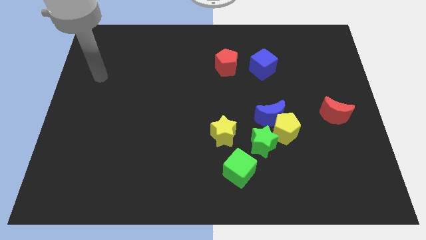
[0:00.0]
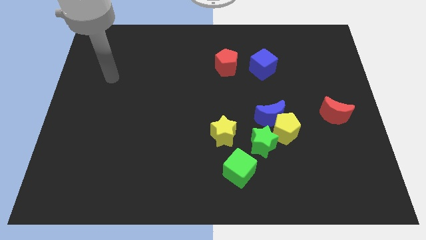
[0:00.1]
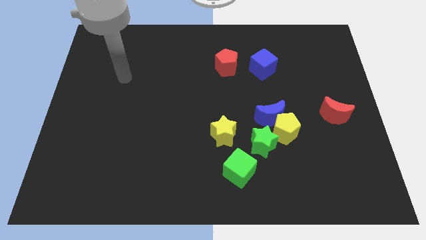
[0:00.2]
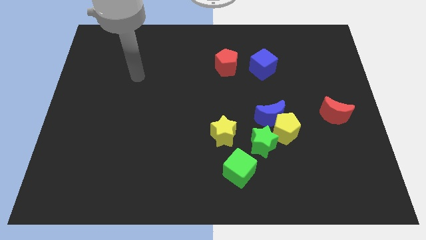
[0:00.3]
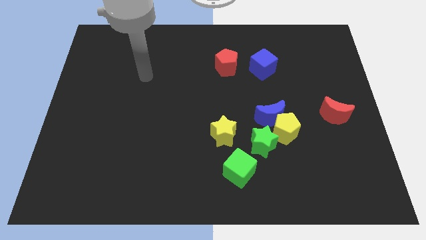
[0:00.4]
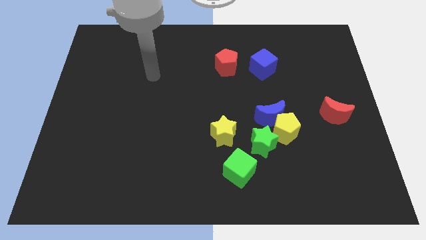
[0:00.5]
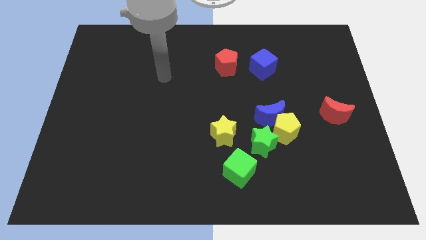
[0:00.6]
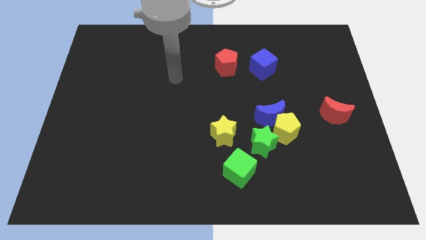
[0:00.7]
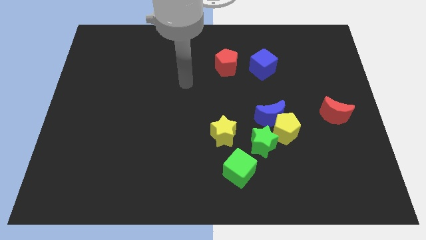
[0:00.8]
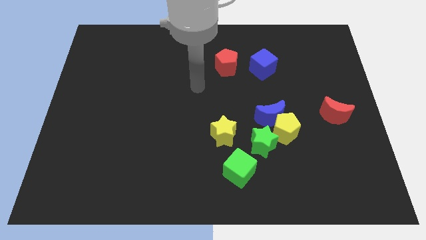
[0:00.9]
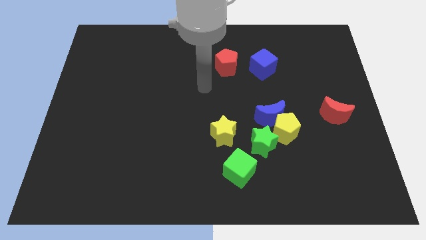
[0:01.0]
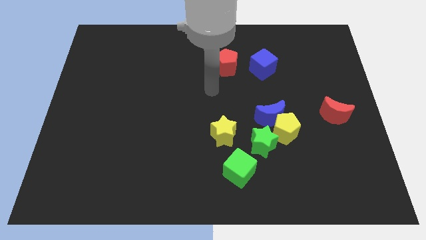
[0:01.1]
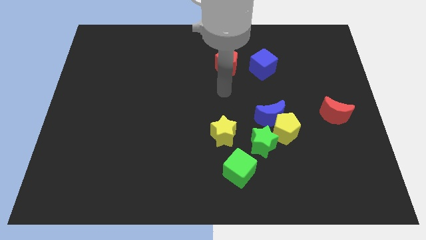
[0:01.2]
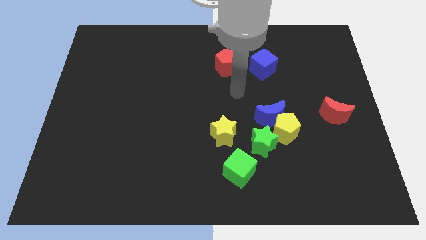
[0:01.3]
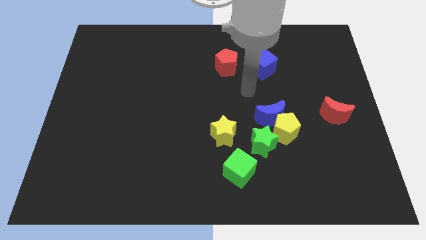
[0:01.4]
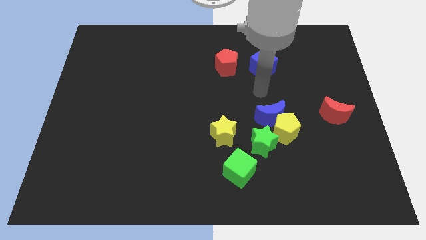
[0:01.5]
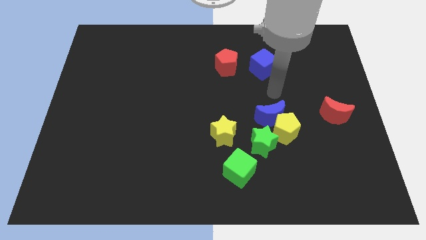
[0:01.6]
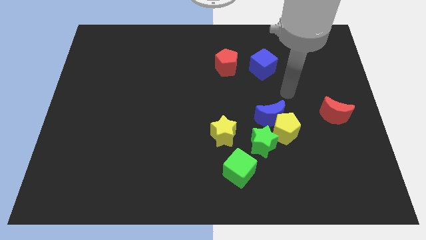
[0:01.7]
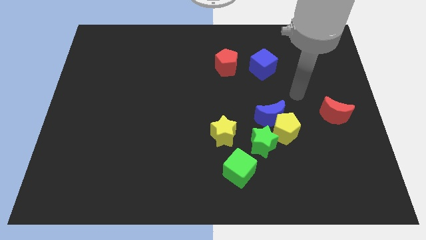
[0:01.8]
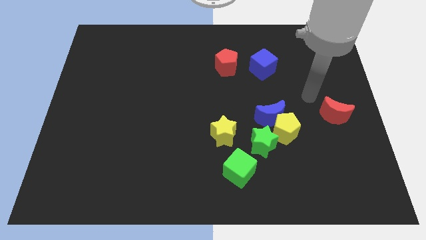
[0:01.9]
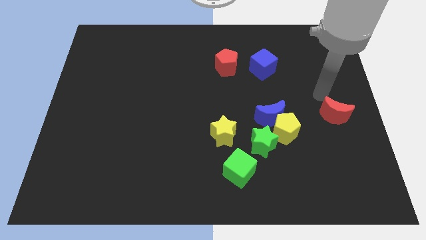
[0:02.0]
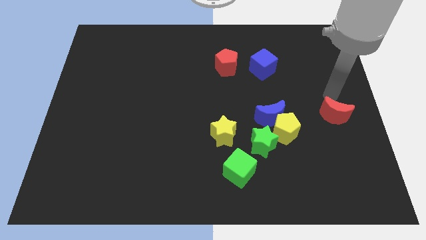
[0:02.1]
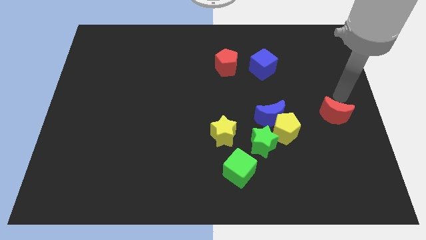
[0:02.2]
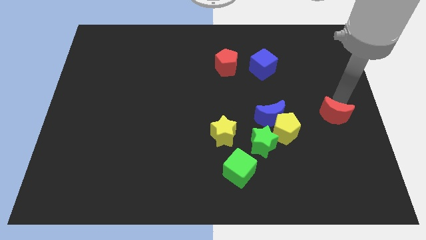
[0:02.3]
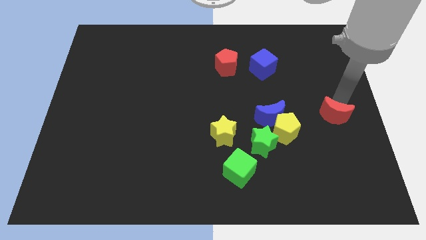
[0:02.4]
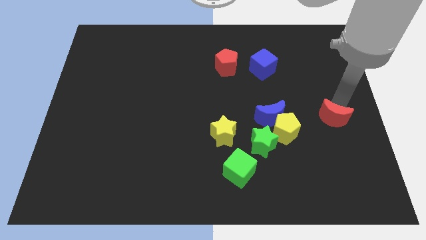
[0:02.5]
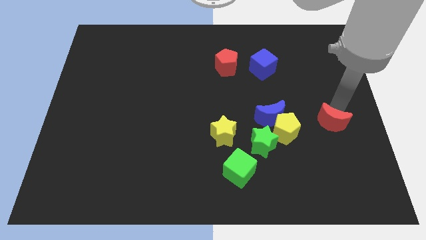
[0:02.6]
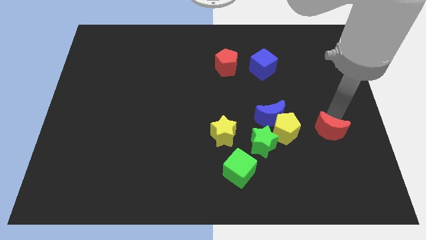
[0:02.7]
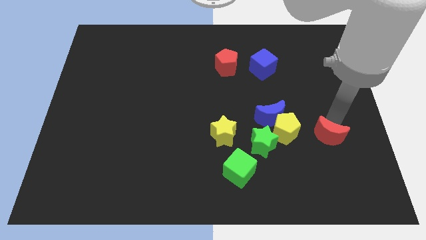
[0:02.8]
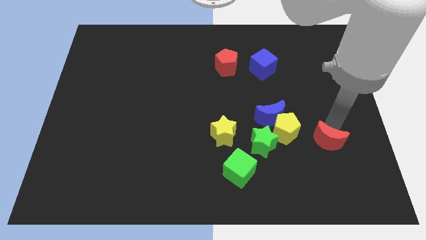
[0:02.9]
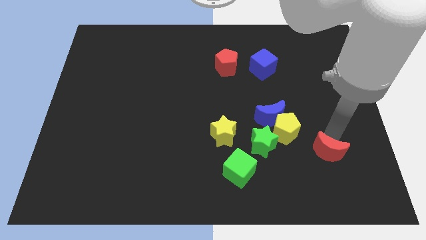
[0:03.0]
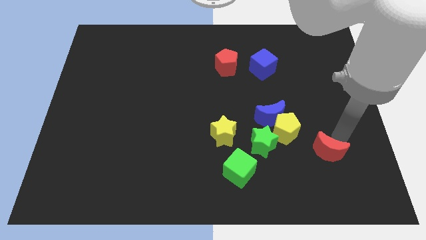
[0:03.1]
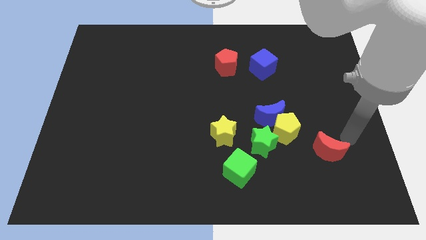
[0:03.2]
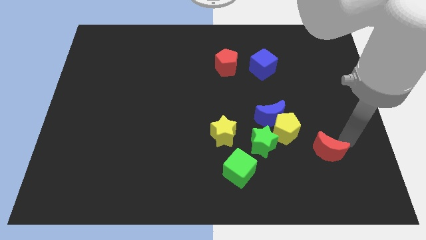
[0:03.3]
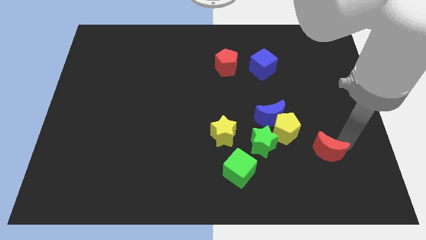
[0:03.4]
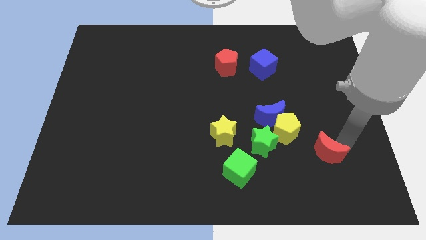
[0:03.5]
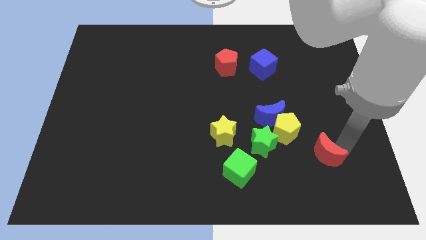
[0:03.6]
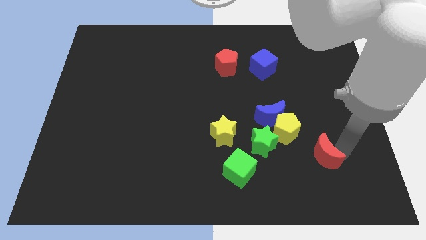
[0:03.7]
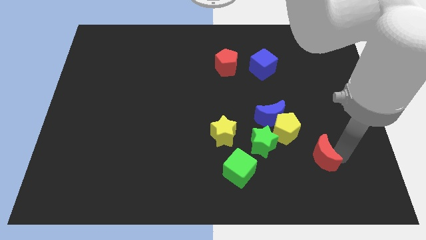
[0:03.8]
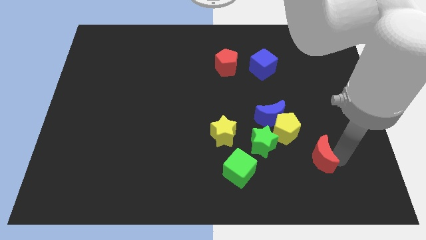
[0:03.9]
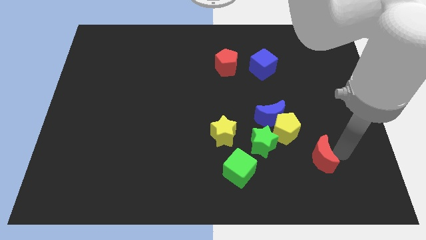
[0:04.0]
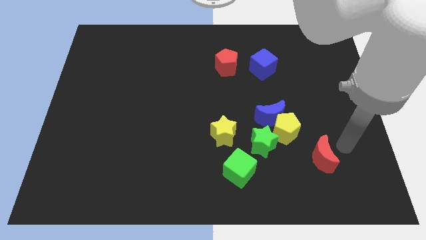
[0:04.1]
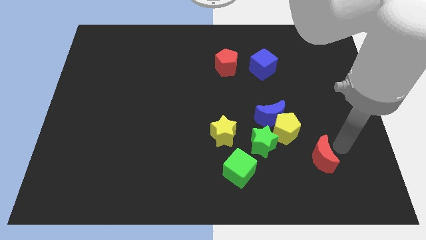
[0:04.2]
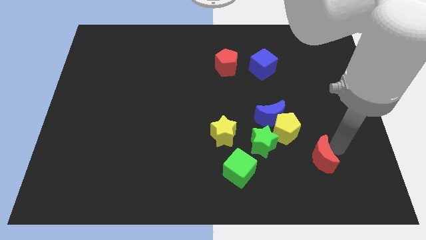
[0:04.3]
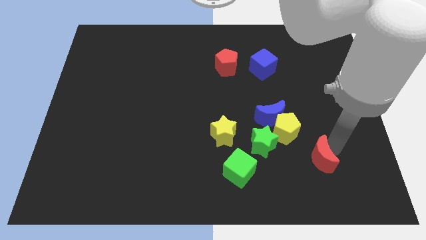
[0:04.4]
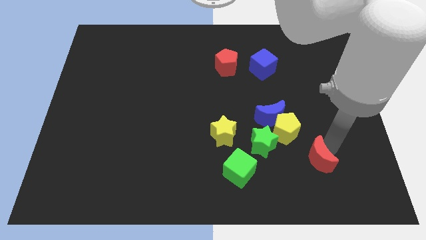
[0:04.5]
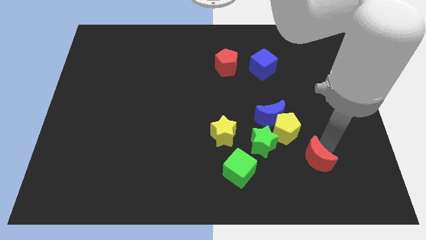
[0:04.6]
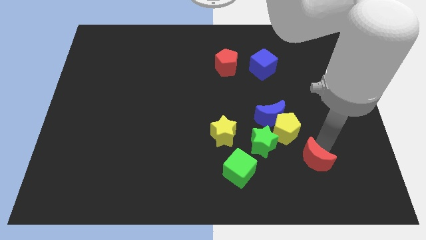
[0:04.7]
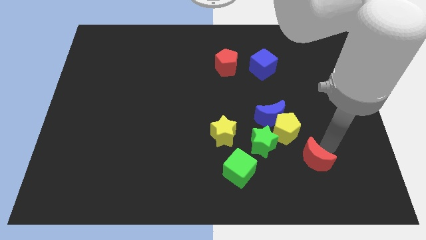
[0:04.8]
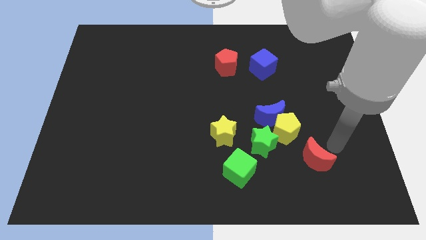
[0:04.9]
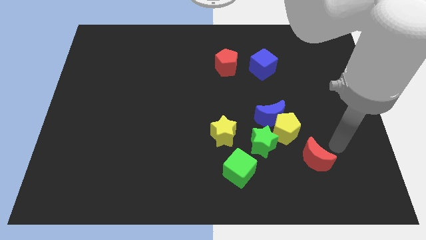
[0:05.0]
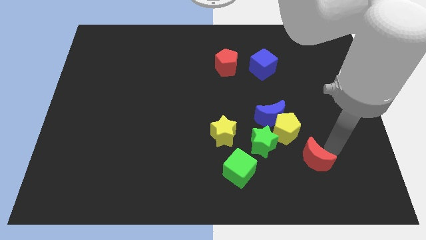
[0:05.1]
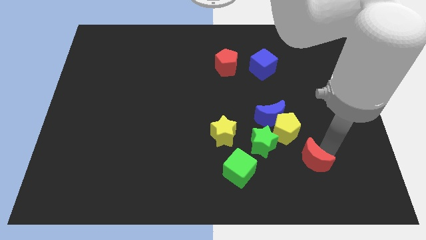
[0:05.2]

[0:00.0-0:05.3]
slide the red moon to the bottom side of the yellow pentagon

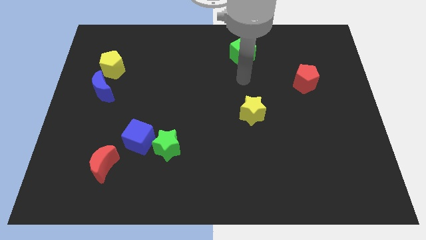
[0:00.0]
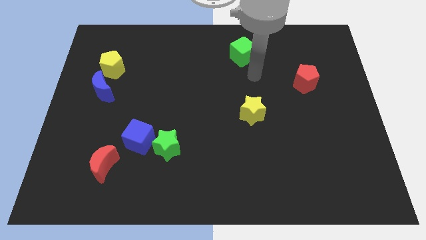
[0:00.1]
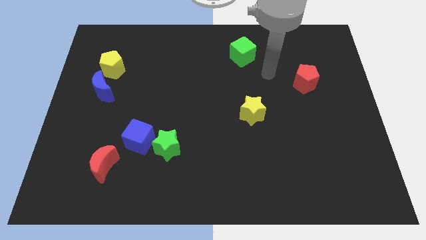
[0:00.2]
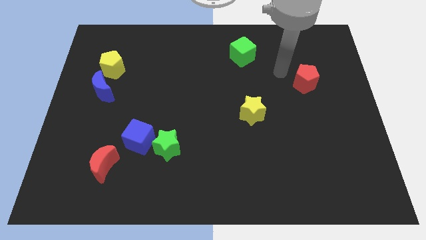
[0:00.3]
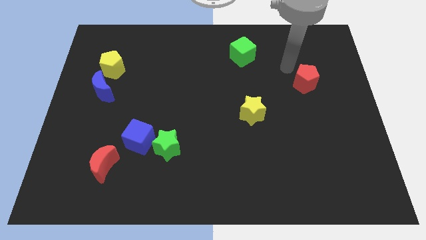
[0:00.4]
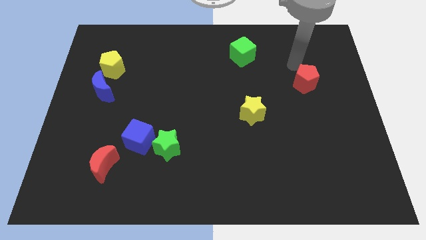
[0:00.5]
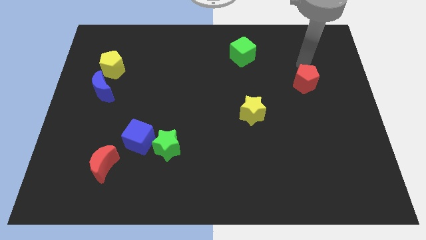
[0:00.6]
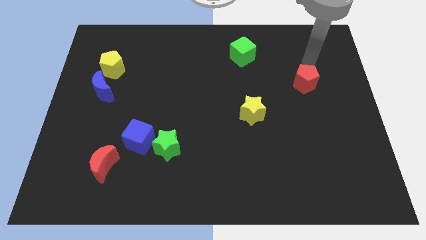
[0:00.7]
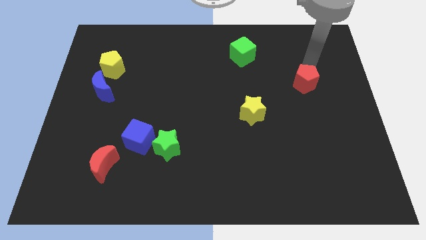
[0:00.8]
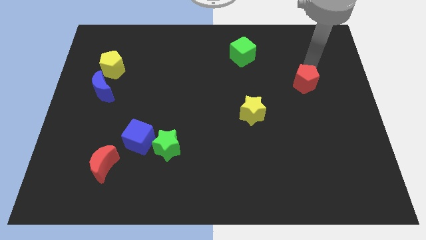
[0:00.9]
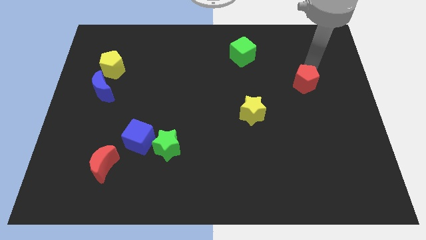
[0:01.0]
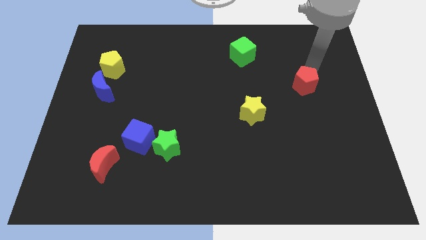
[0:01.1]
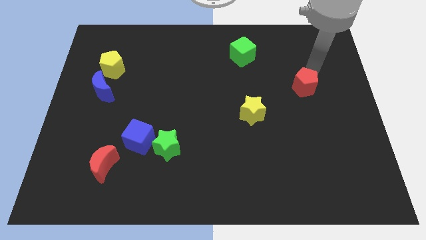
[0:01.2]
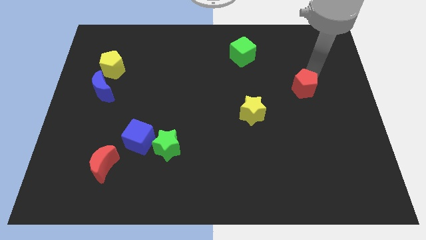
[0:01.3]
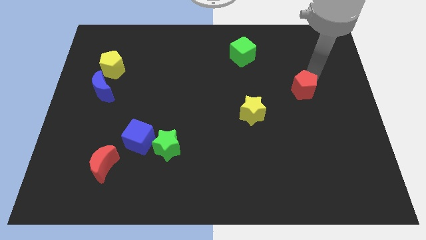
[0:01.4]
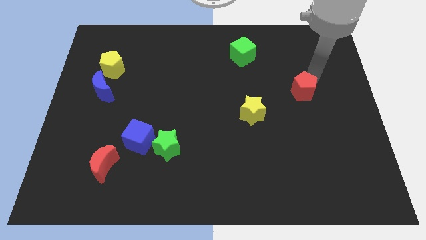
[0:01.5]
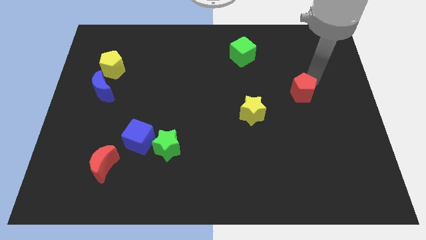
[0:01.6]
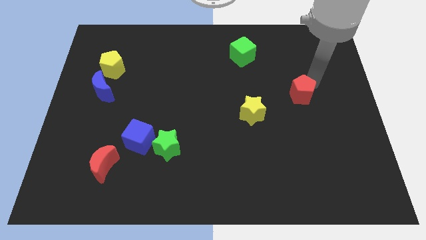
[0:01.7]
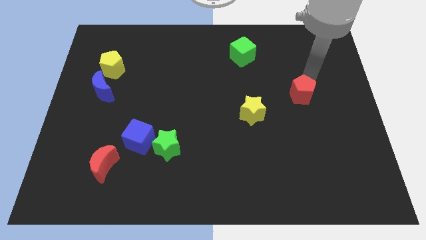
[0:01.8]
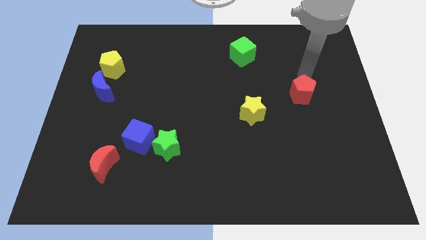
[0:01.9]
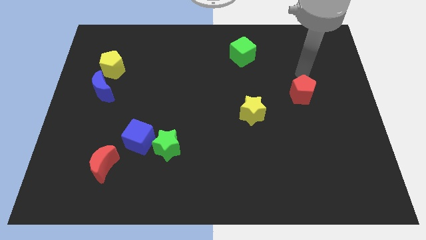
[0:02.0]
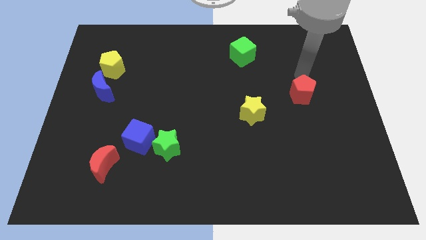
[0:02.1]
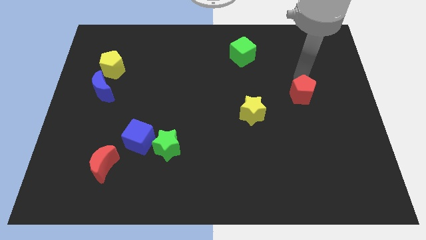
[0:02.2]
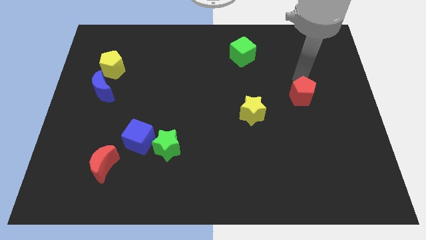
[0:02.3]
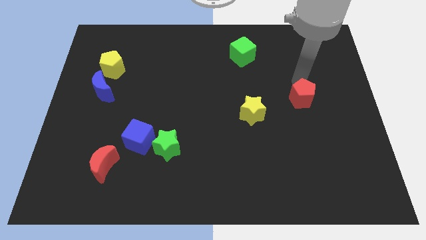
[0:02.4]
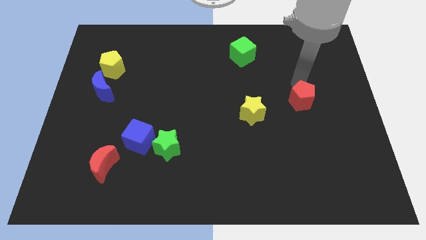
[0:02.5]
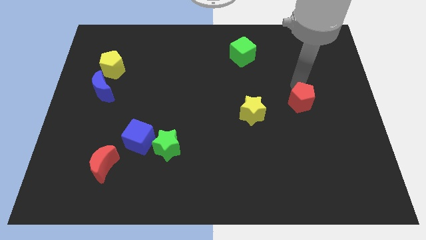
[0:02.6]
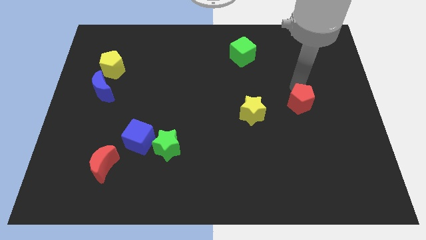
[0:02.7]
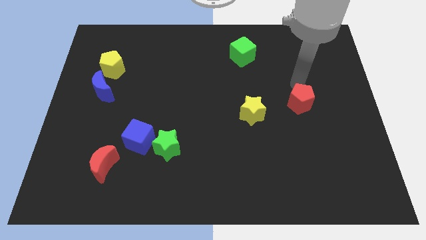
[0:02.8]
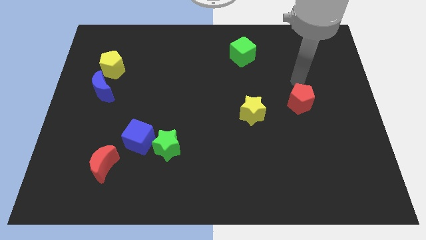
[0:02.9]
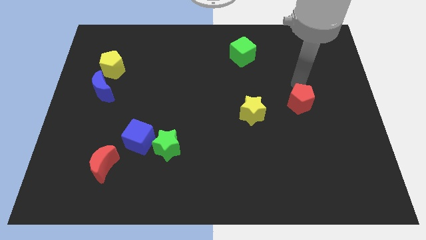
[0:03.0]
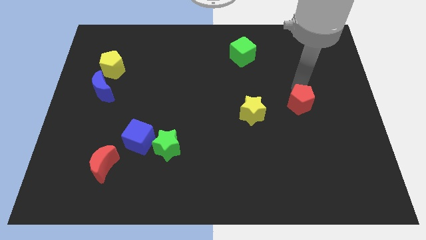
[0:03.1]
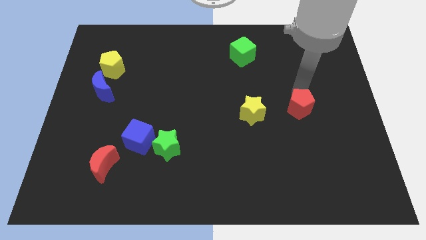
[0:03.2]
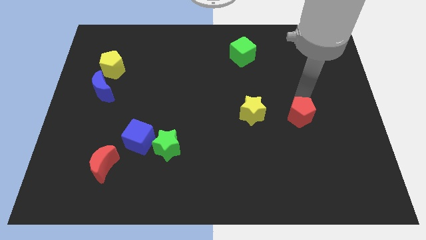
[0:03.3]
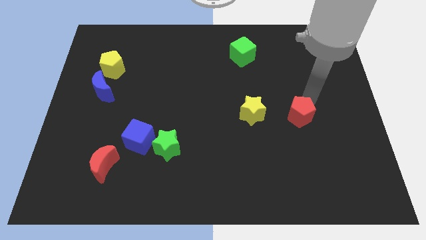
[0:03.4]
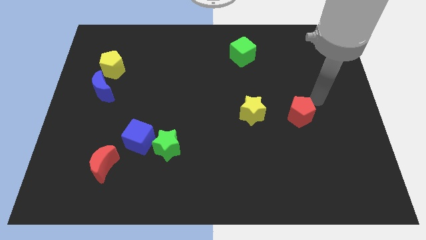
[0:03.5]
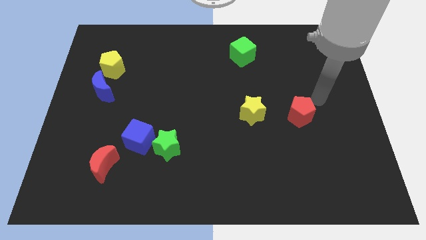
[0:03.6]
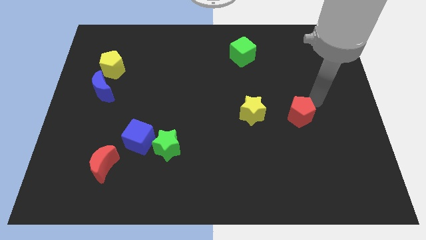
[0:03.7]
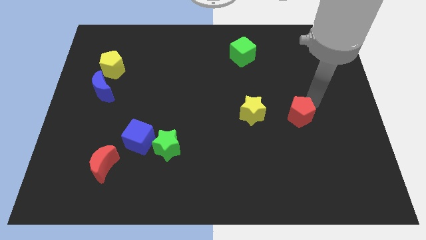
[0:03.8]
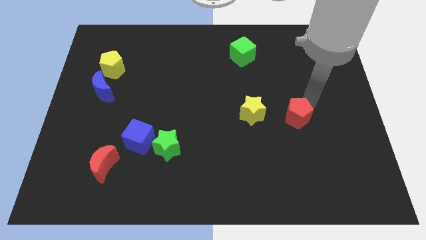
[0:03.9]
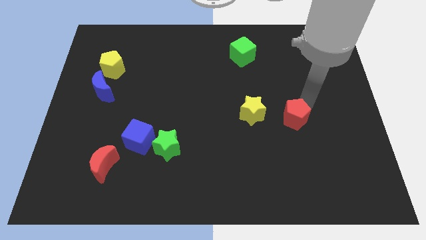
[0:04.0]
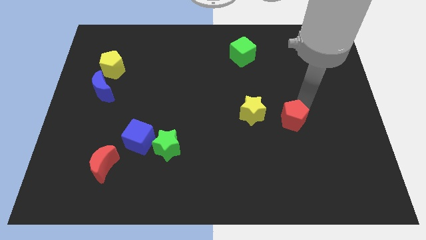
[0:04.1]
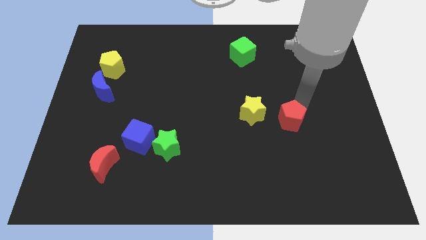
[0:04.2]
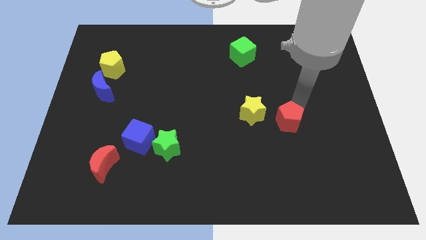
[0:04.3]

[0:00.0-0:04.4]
push the red pentagon to the bottom right of the yellow star
